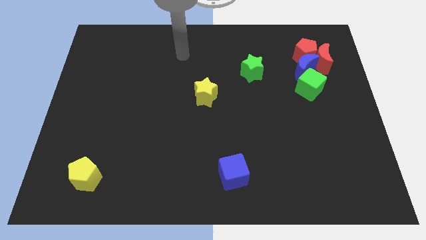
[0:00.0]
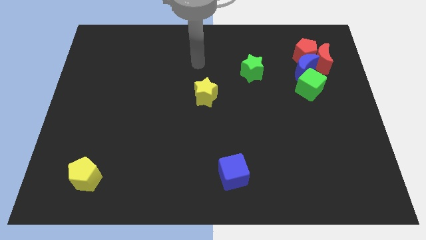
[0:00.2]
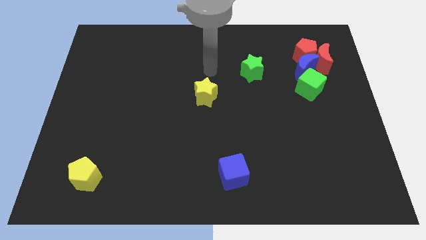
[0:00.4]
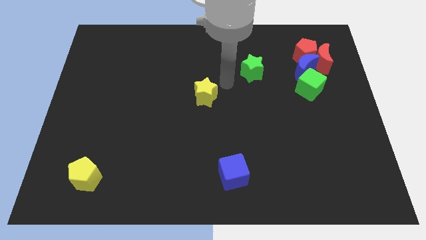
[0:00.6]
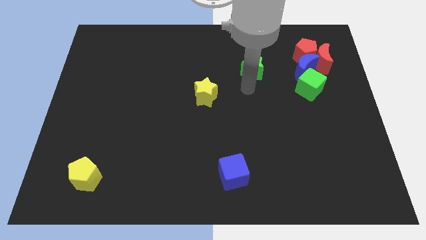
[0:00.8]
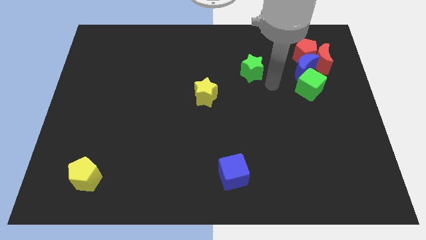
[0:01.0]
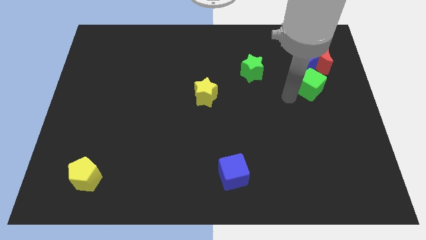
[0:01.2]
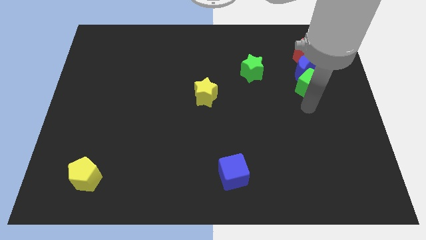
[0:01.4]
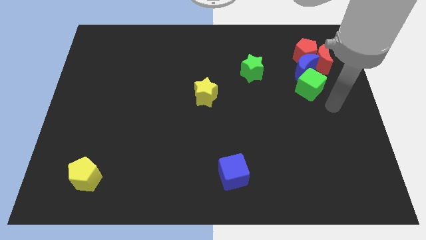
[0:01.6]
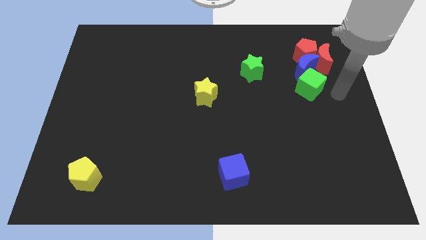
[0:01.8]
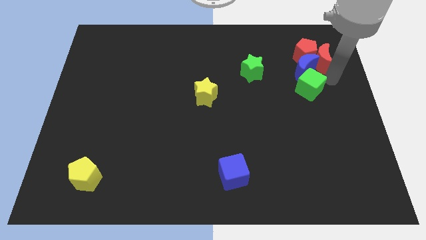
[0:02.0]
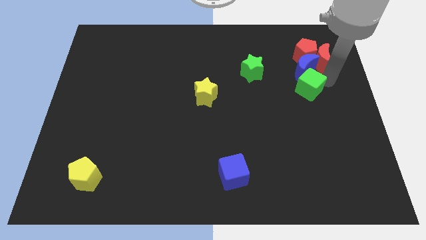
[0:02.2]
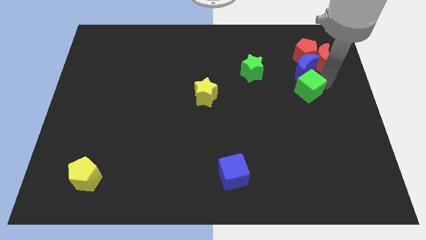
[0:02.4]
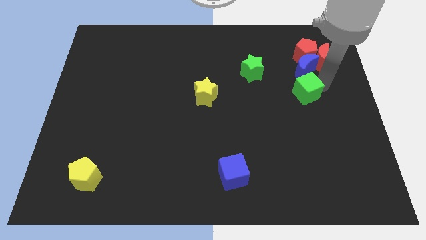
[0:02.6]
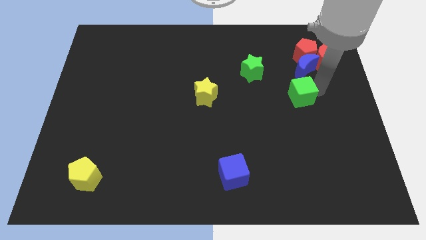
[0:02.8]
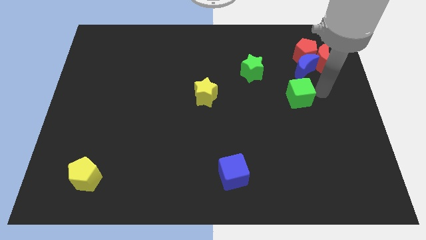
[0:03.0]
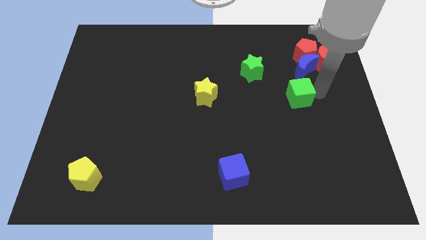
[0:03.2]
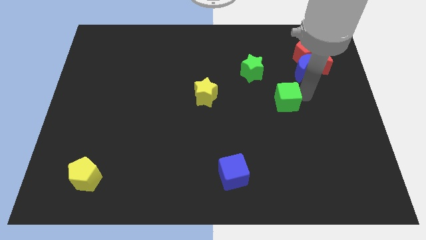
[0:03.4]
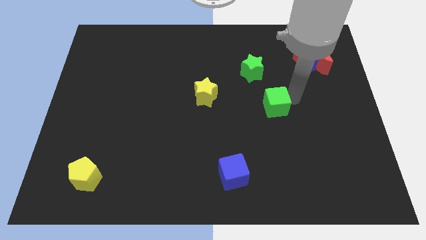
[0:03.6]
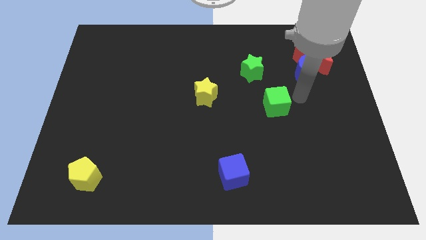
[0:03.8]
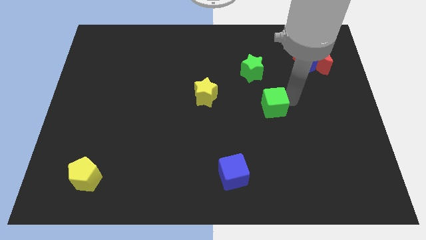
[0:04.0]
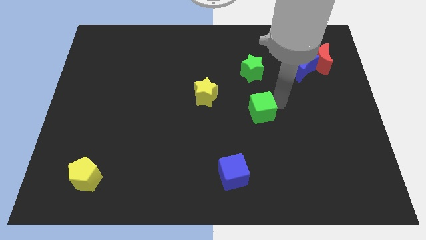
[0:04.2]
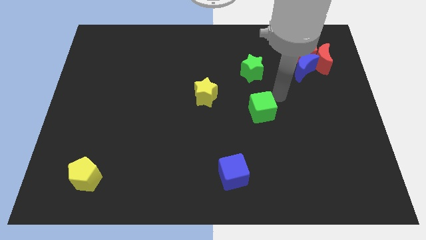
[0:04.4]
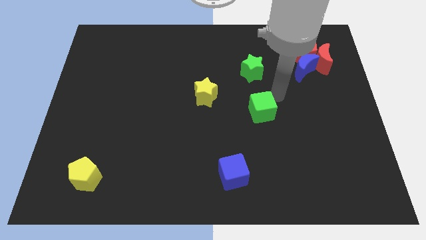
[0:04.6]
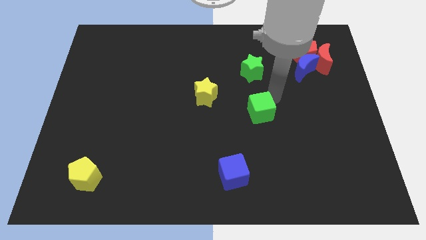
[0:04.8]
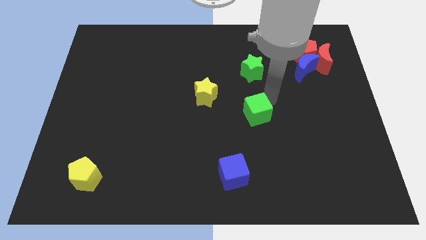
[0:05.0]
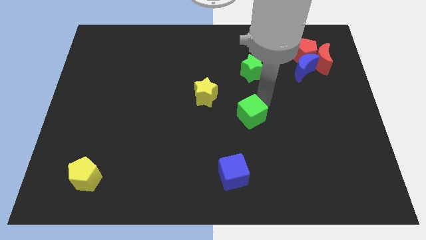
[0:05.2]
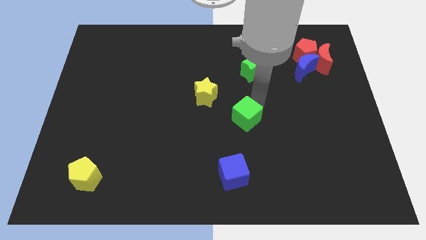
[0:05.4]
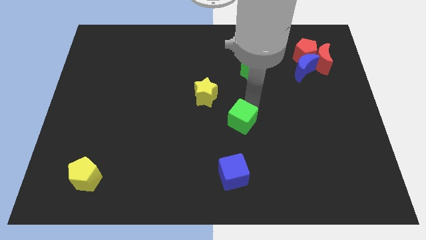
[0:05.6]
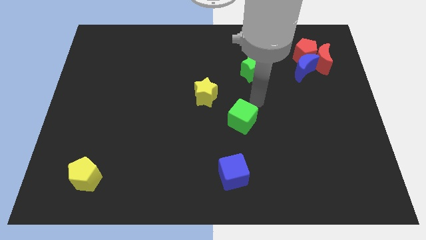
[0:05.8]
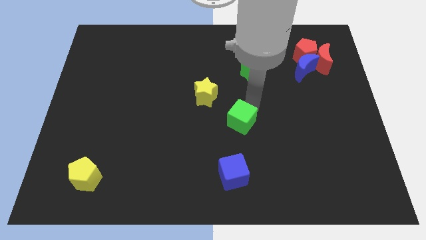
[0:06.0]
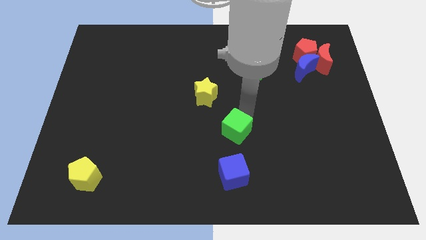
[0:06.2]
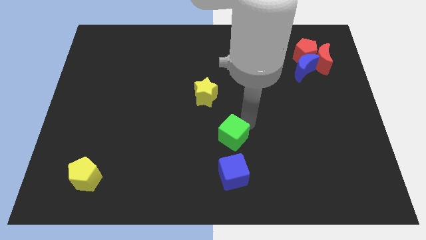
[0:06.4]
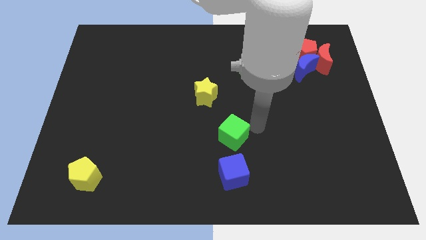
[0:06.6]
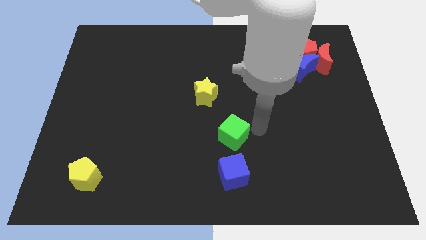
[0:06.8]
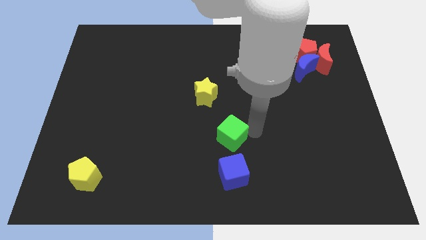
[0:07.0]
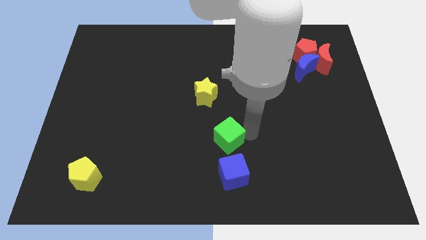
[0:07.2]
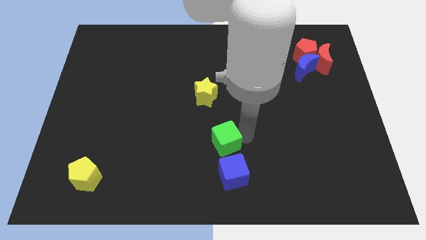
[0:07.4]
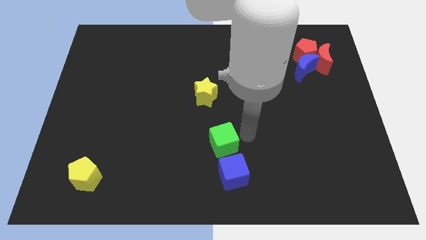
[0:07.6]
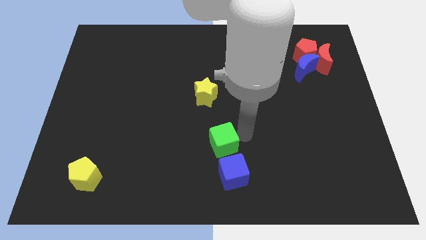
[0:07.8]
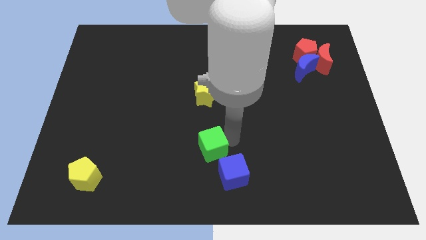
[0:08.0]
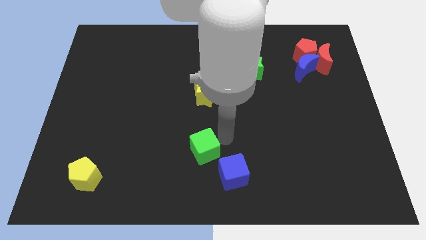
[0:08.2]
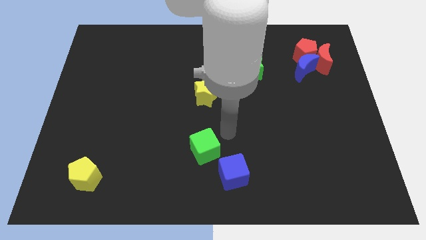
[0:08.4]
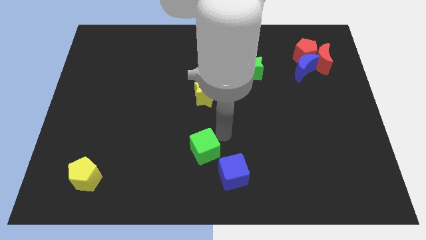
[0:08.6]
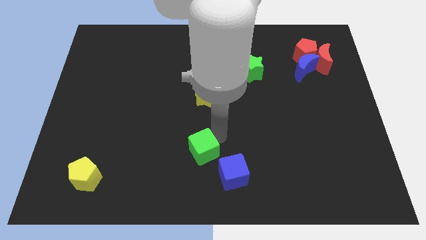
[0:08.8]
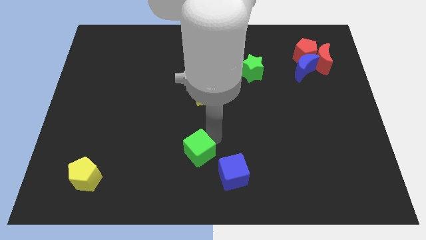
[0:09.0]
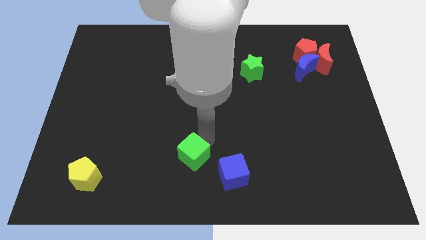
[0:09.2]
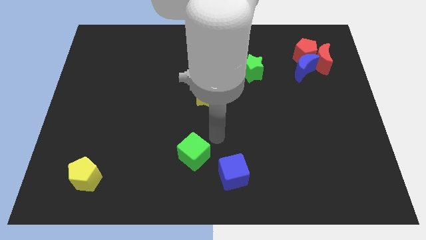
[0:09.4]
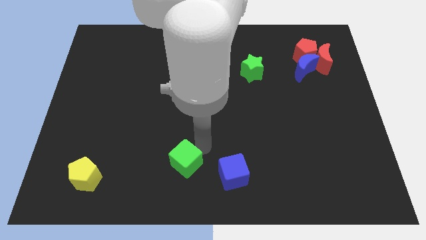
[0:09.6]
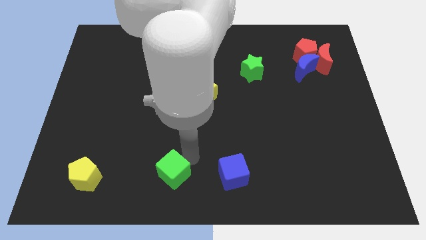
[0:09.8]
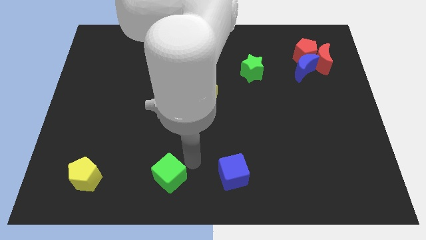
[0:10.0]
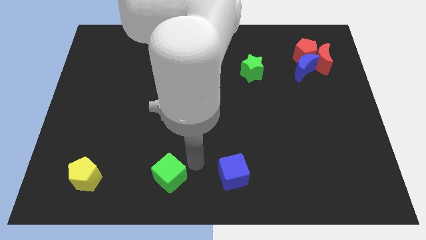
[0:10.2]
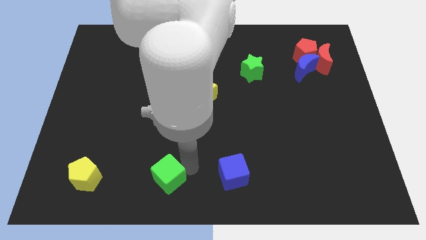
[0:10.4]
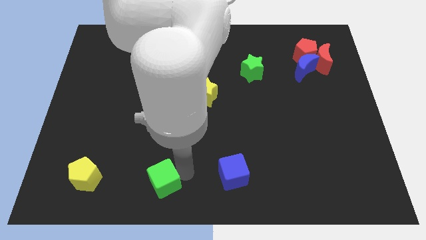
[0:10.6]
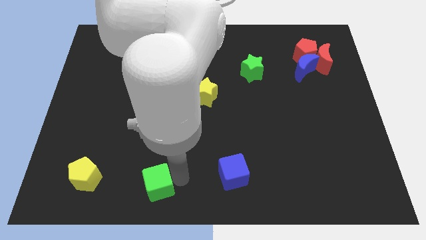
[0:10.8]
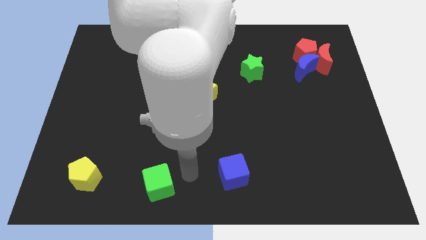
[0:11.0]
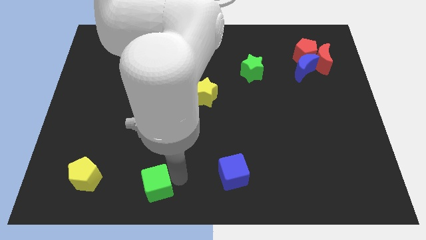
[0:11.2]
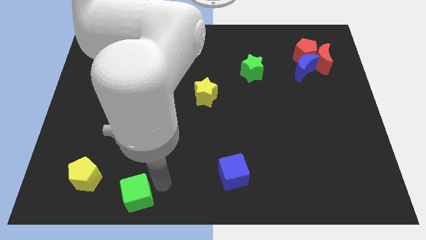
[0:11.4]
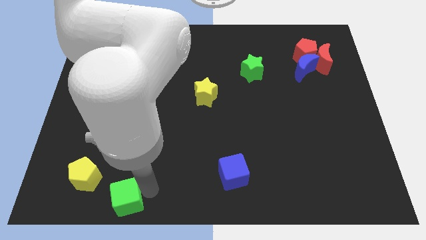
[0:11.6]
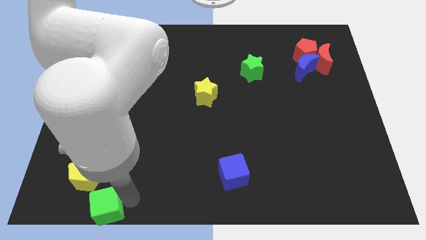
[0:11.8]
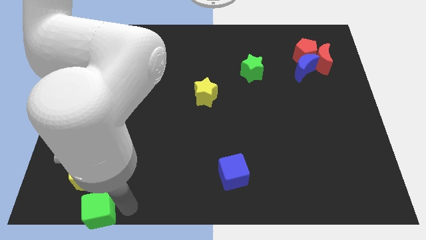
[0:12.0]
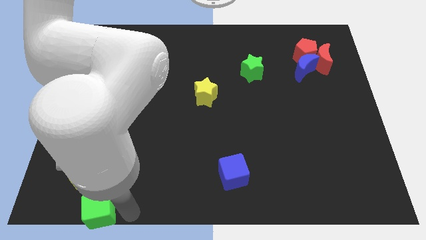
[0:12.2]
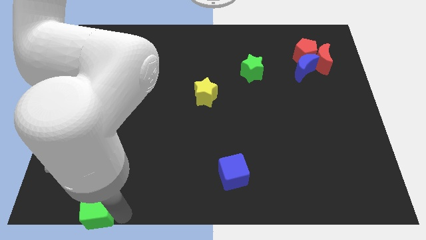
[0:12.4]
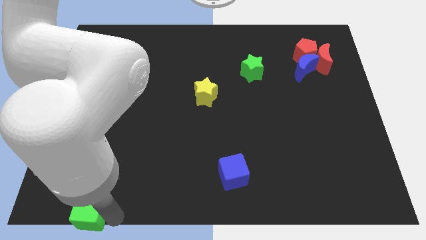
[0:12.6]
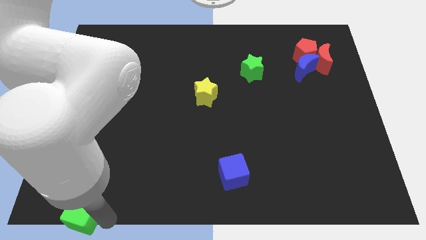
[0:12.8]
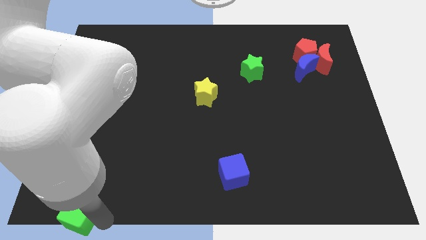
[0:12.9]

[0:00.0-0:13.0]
slide the green cube to the bottom left
